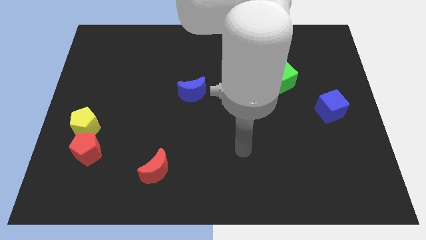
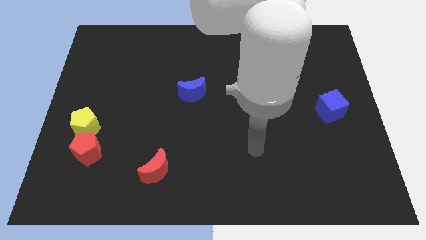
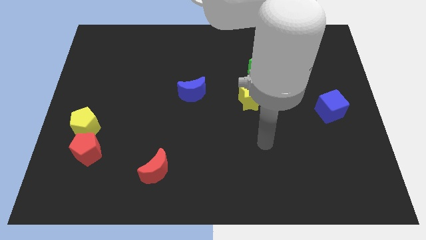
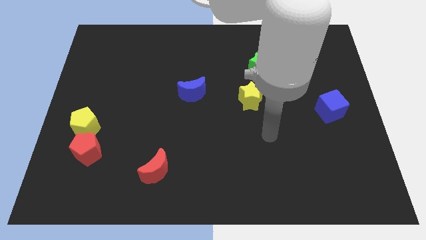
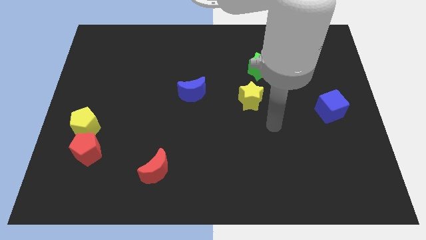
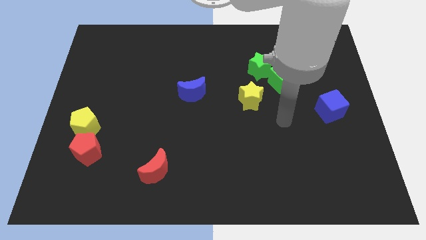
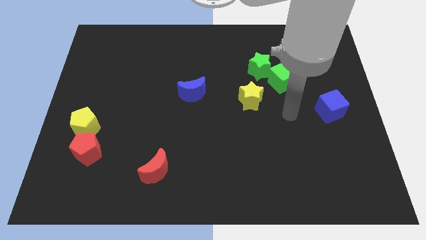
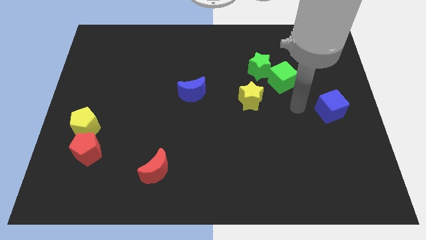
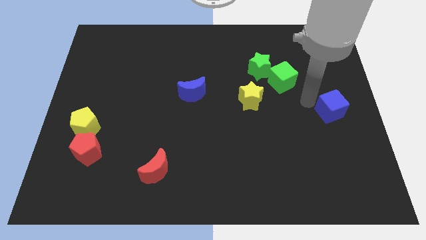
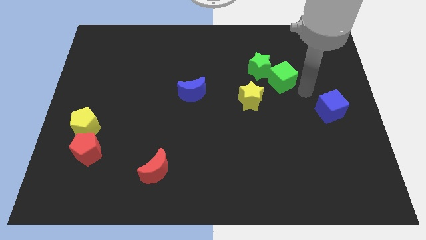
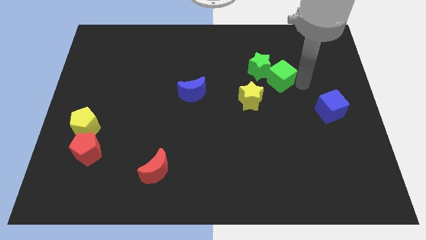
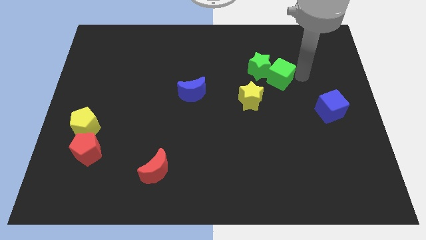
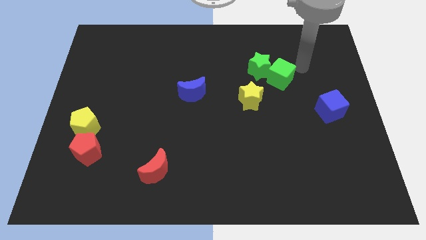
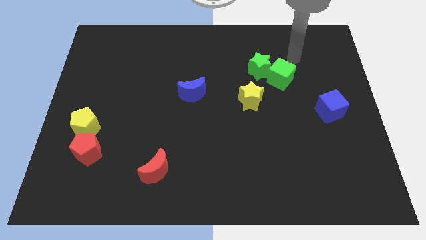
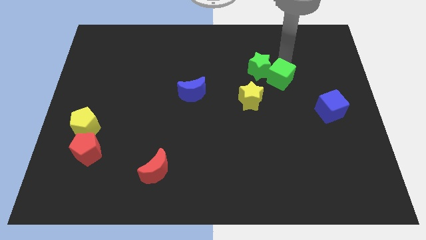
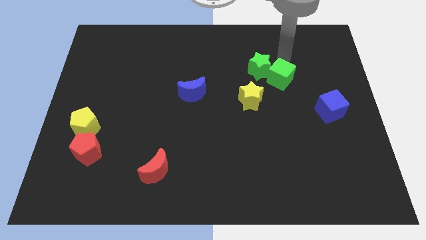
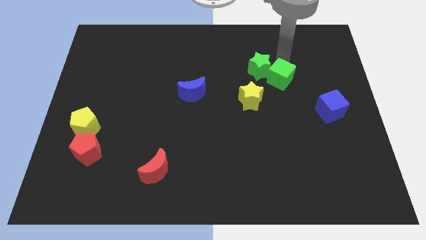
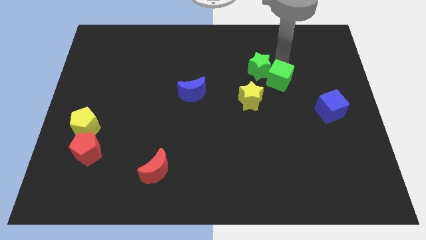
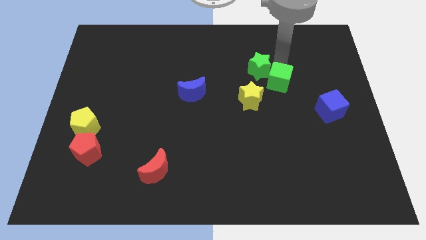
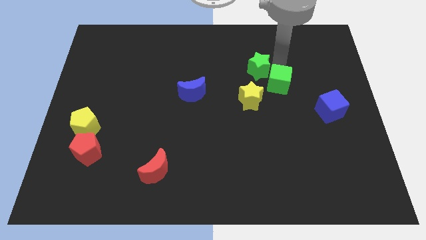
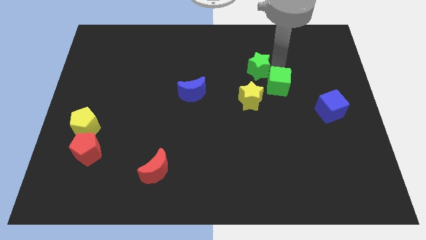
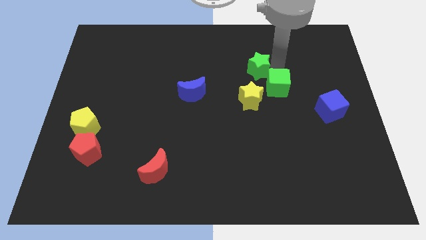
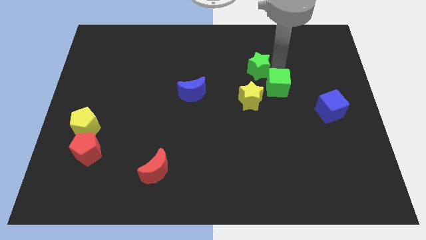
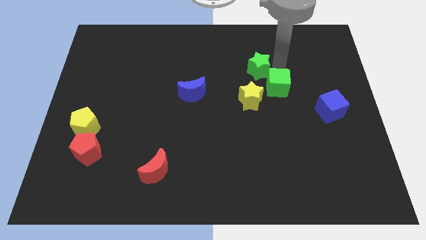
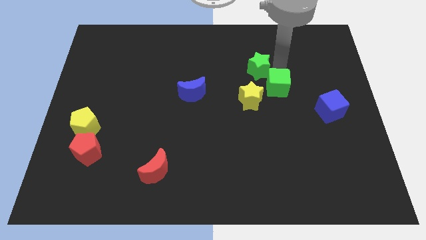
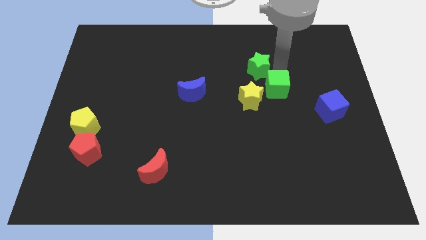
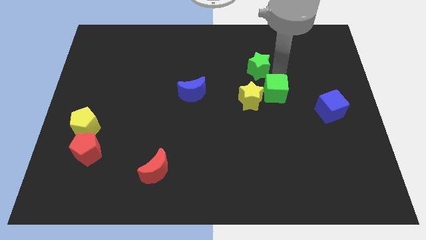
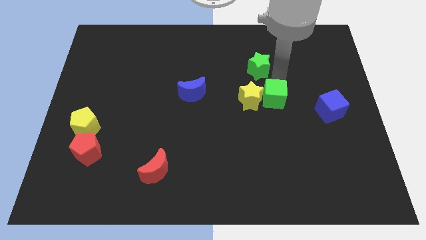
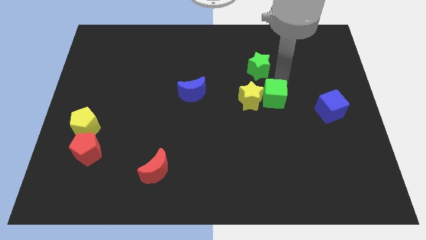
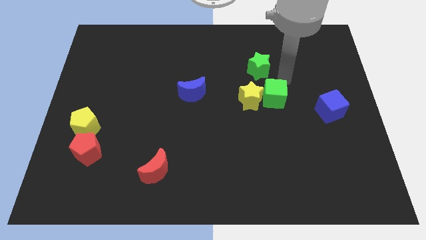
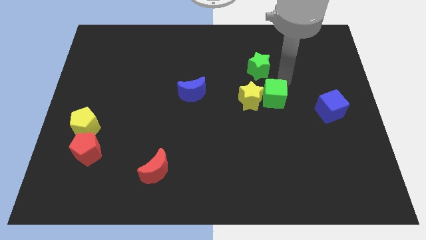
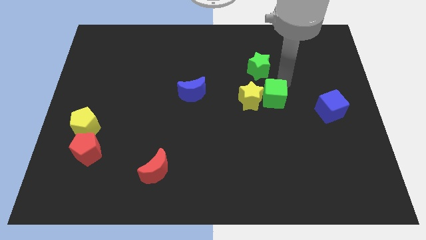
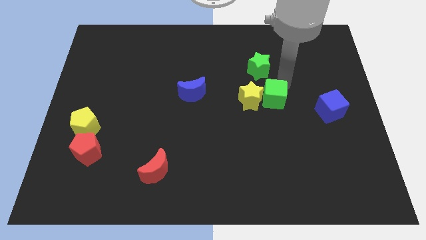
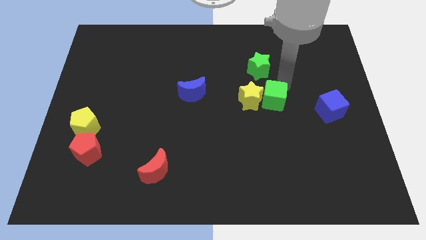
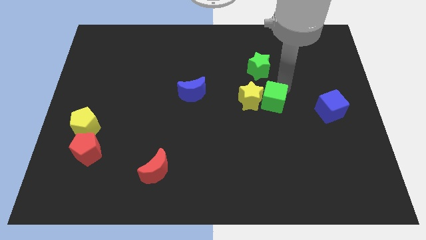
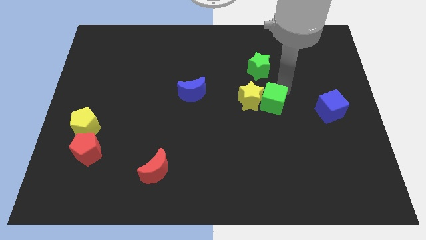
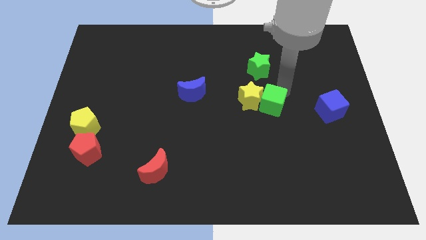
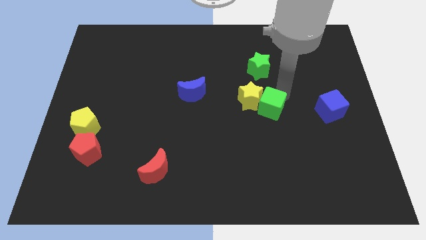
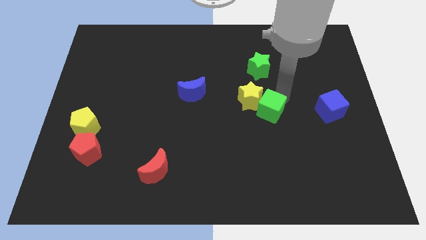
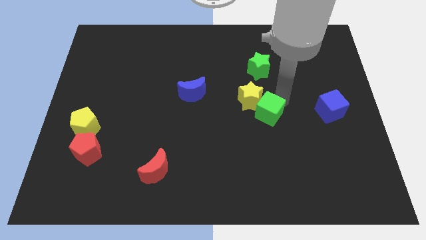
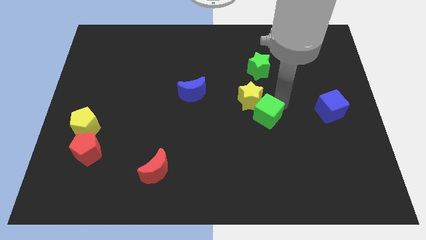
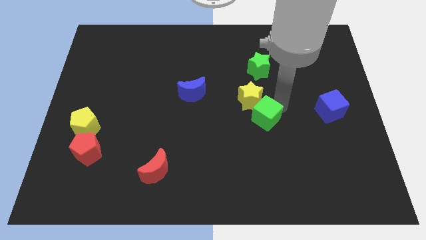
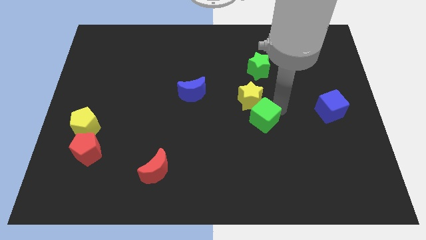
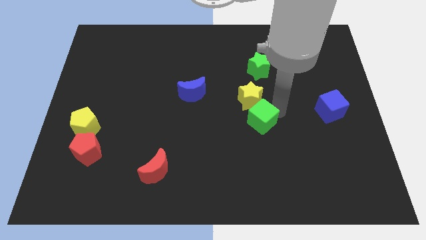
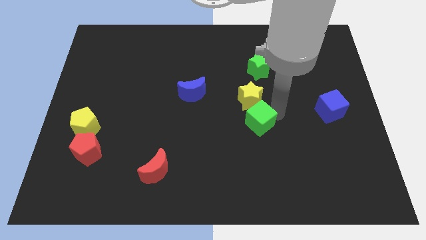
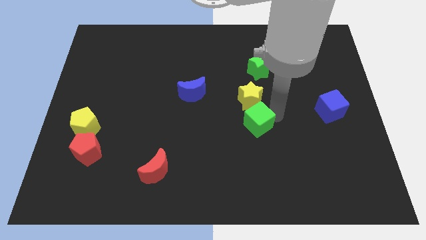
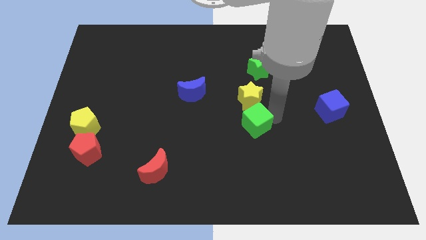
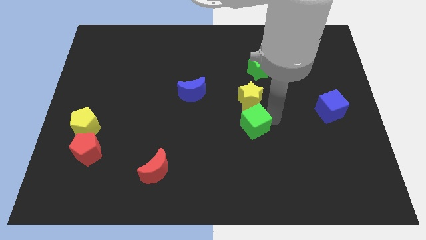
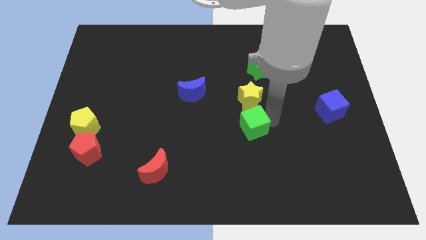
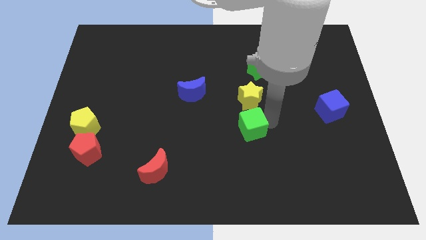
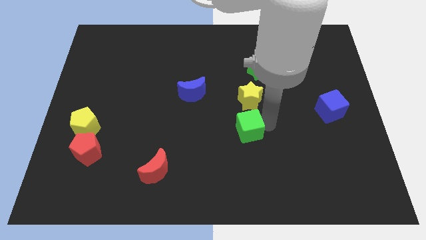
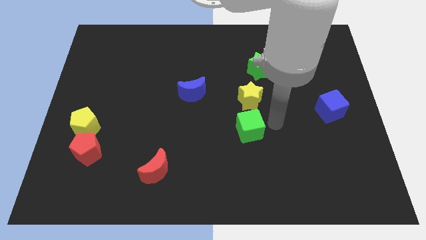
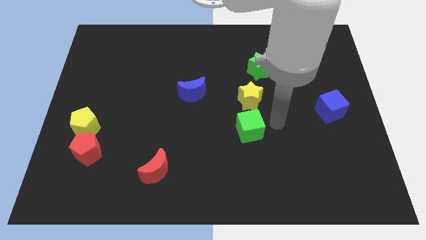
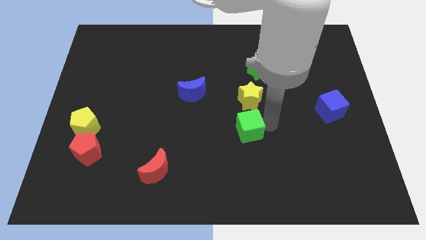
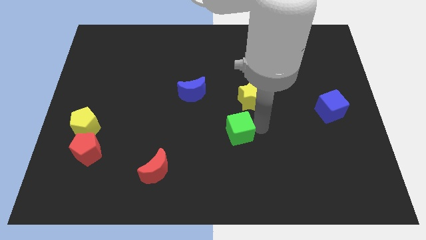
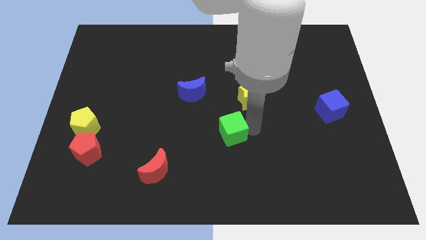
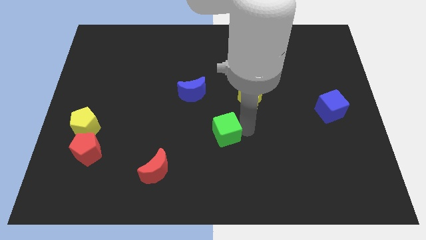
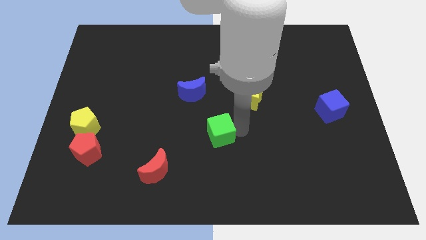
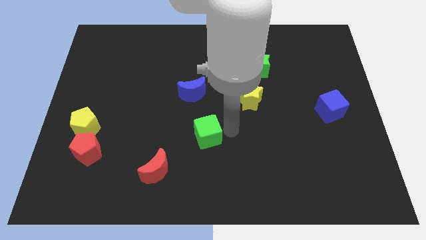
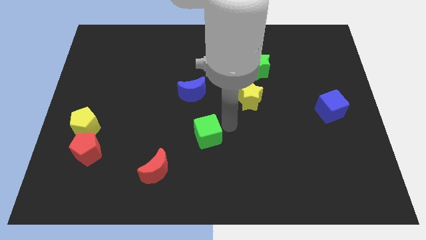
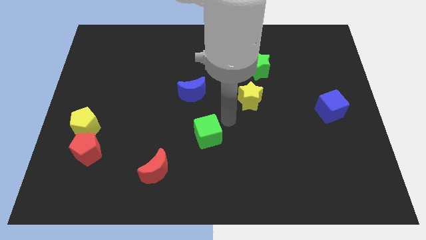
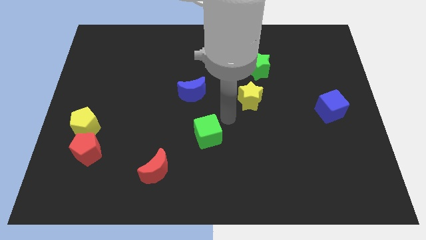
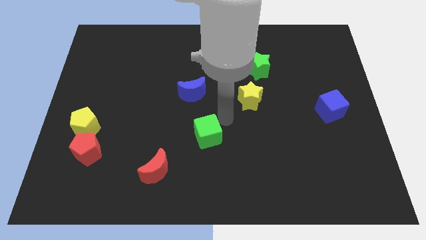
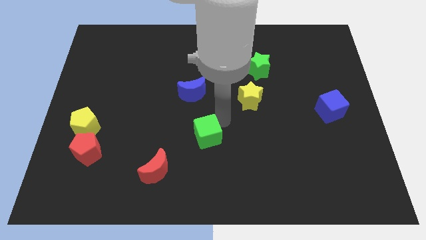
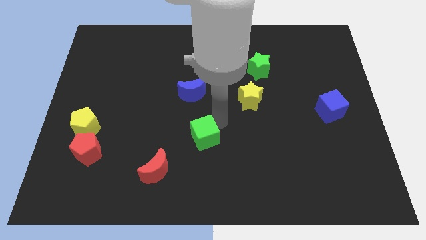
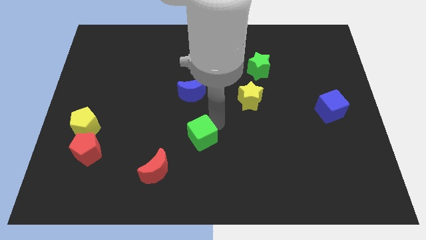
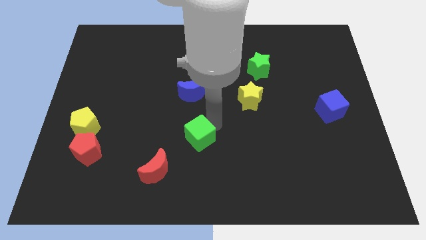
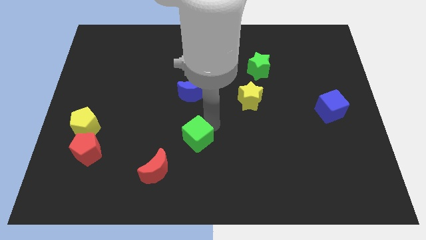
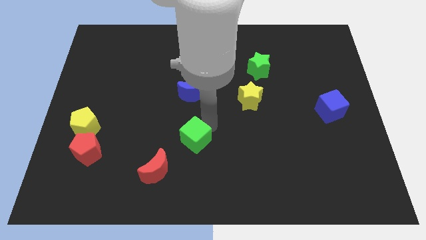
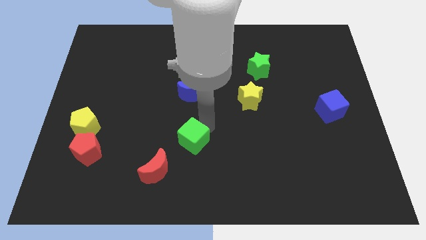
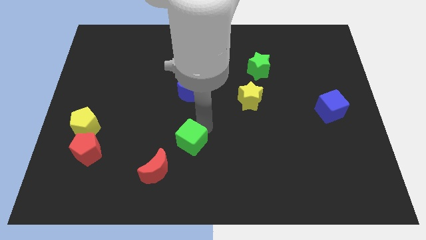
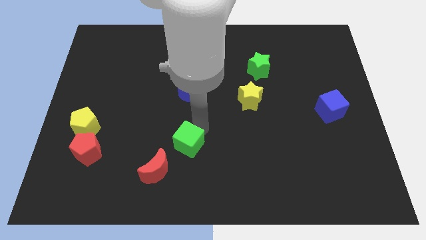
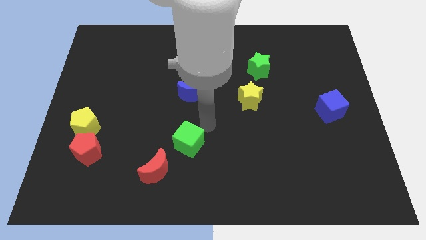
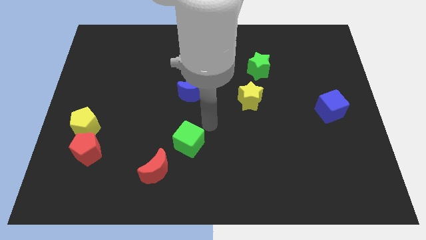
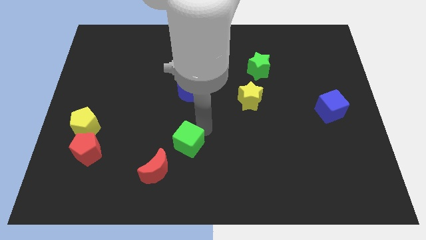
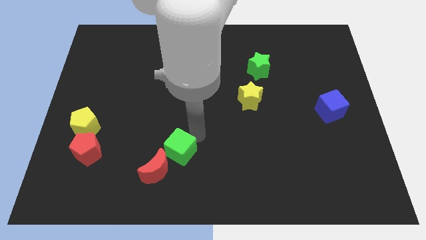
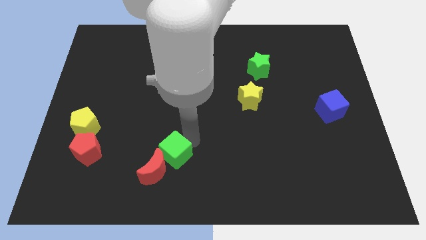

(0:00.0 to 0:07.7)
move the green cube next to the red moon

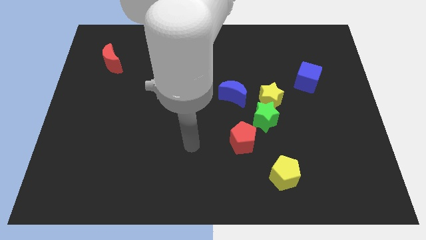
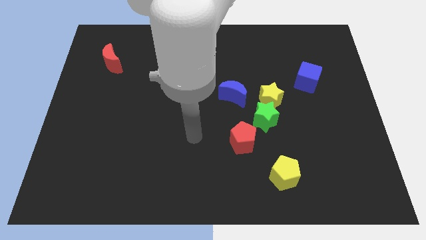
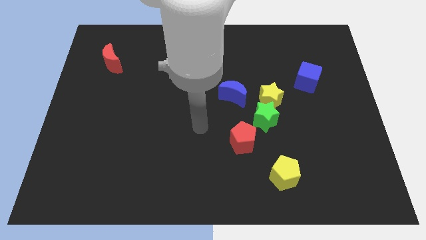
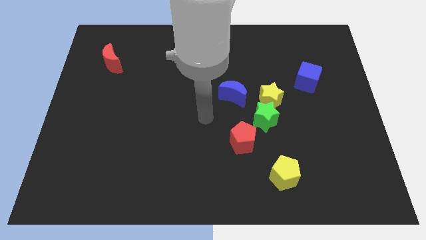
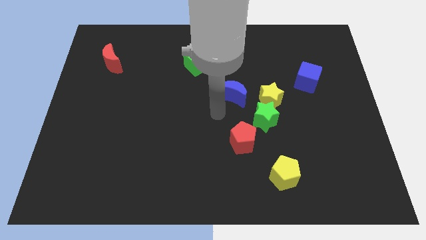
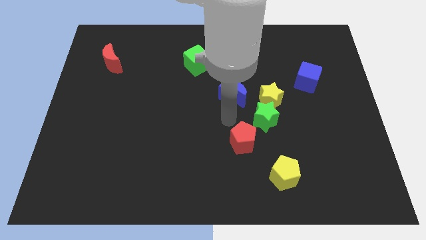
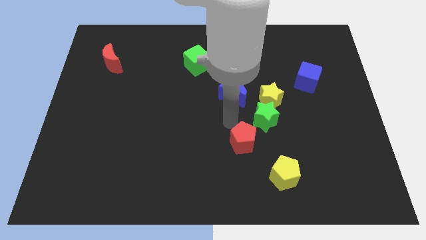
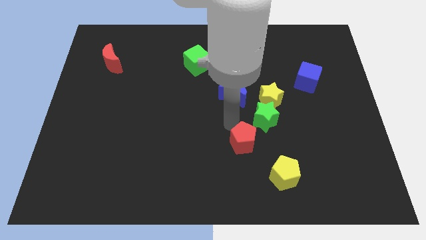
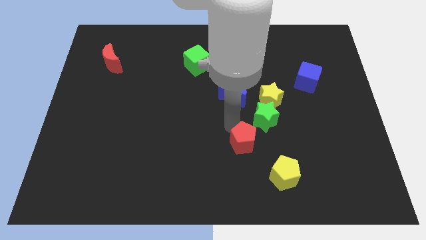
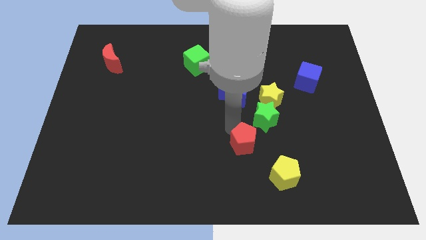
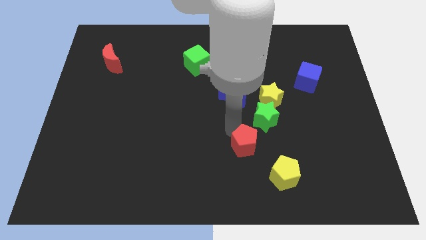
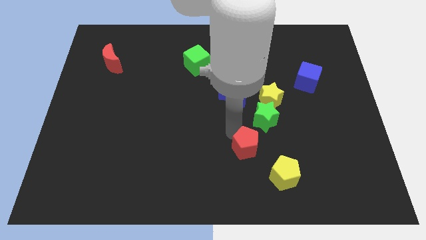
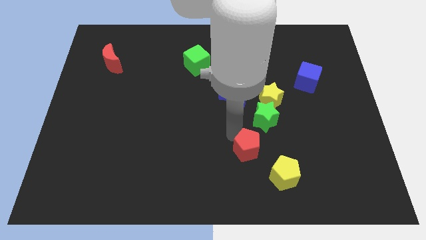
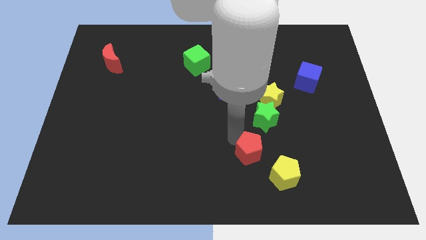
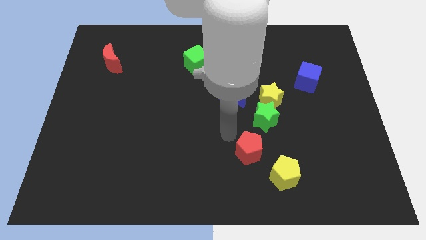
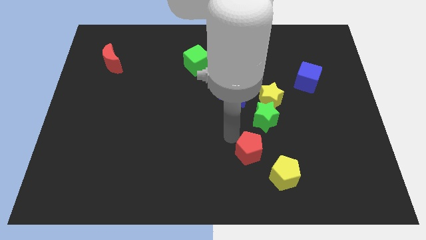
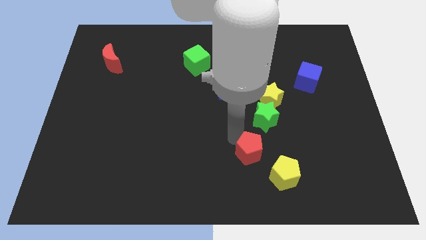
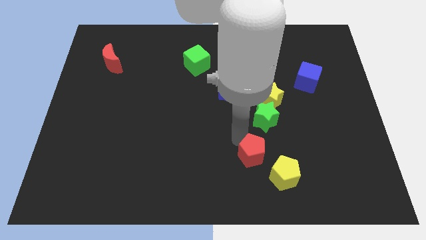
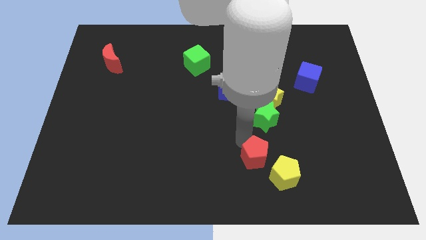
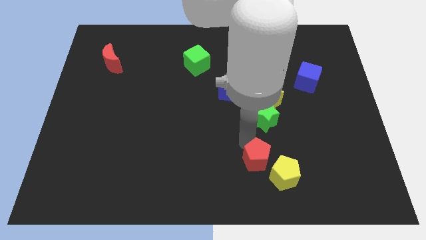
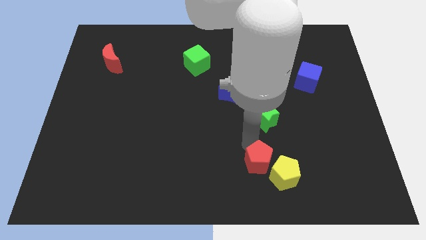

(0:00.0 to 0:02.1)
push the red pentagon next to the yellow pentagon
